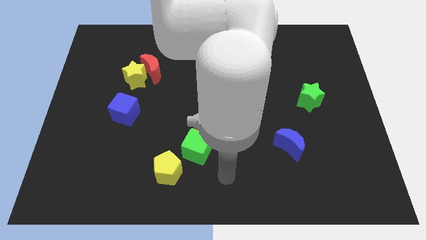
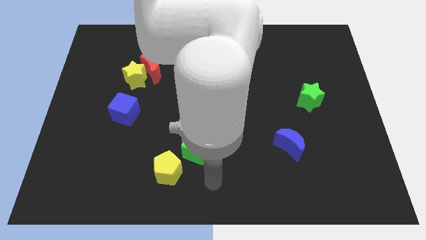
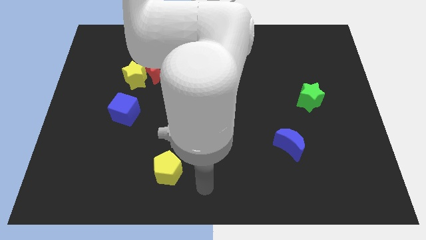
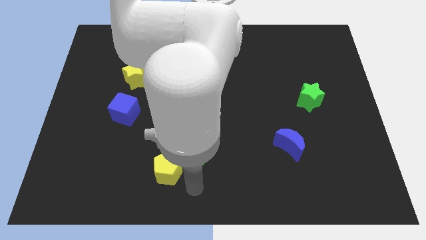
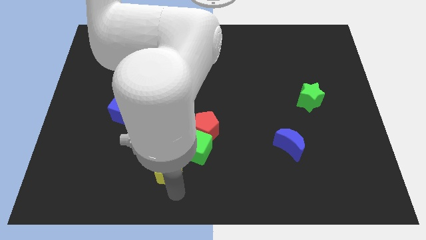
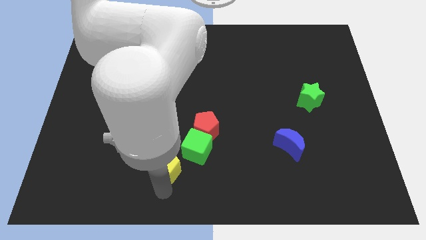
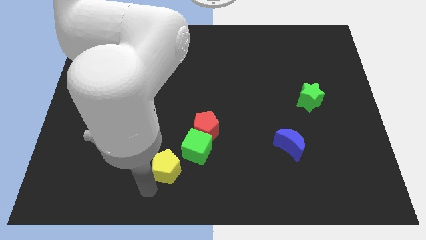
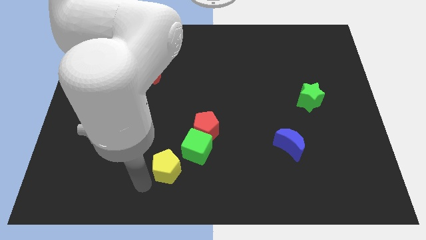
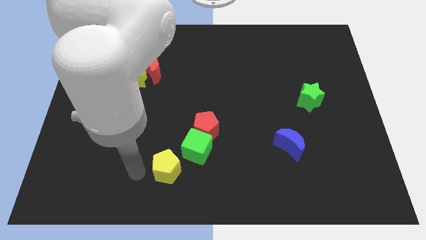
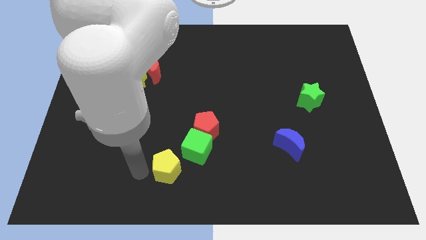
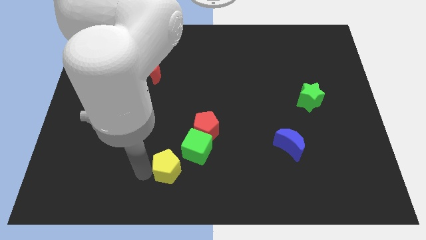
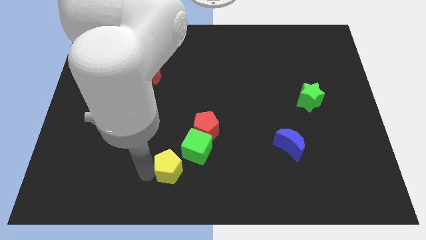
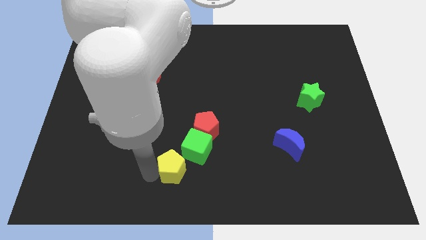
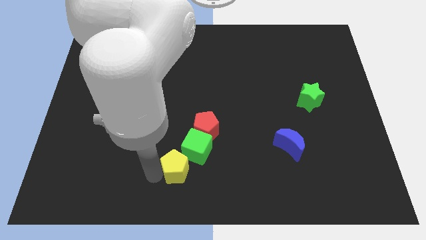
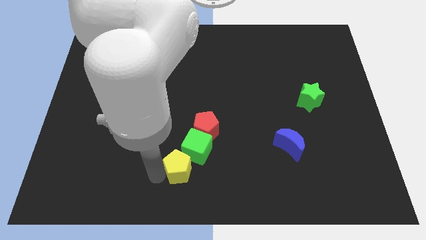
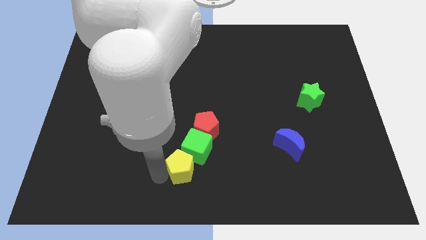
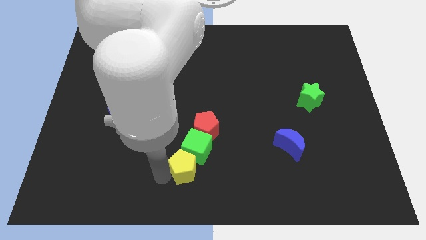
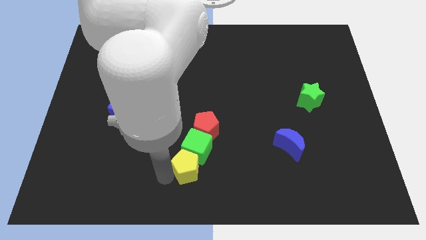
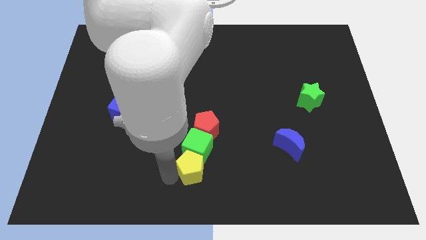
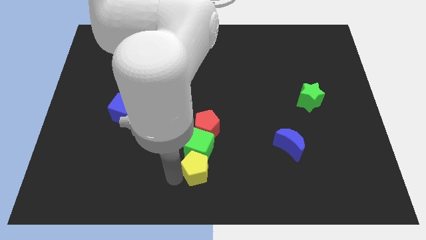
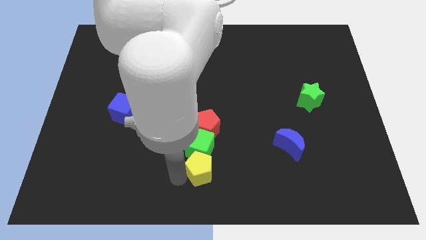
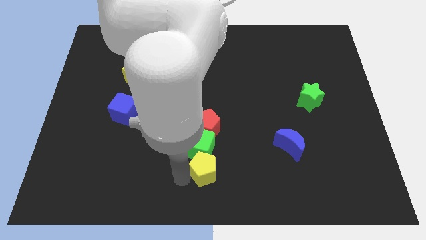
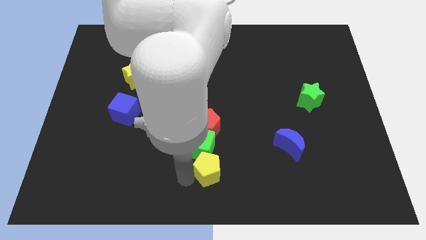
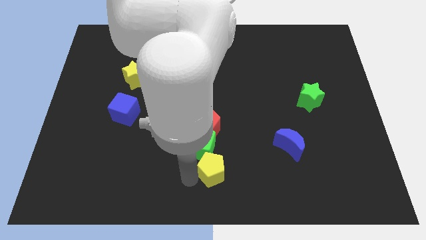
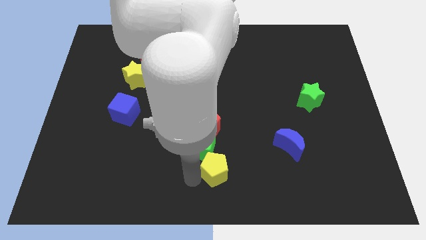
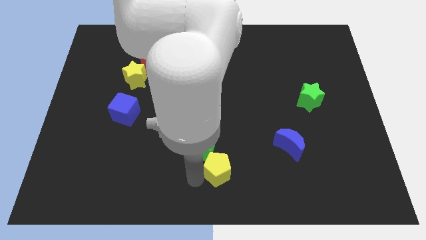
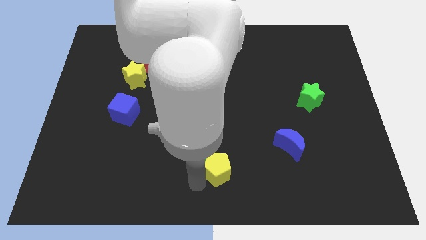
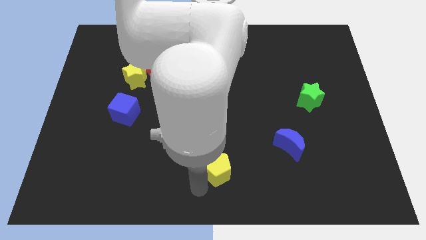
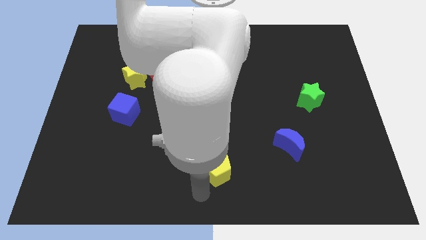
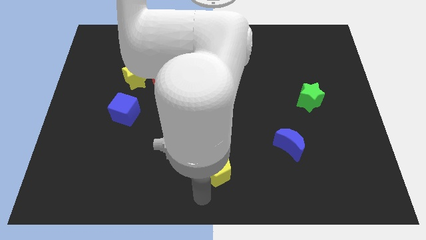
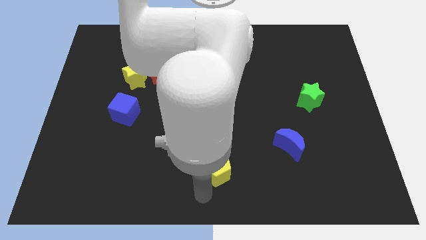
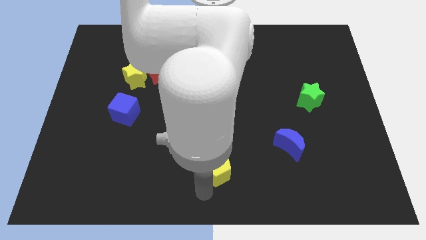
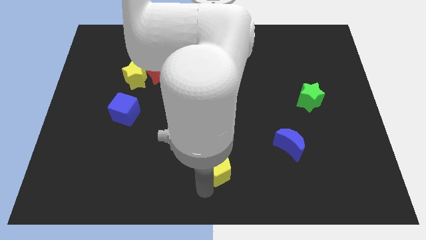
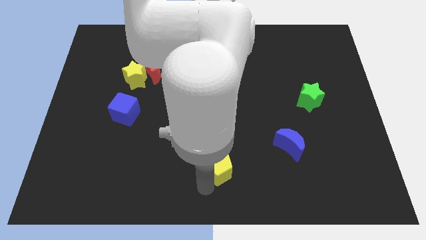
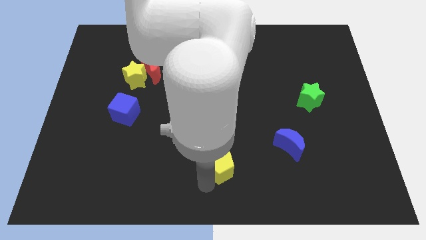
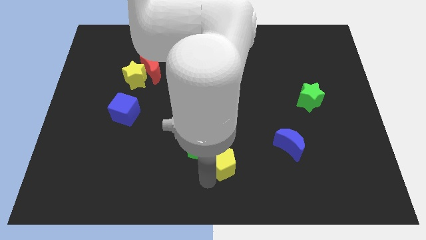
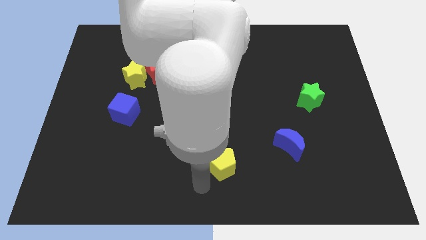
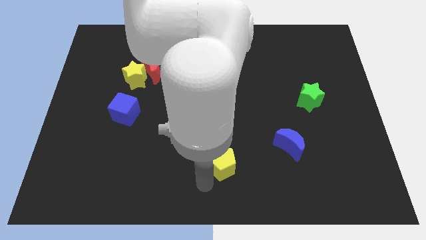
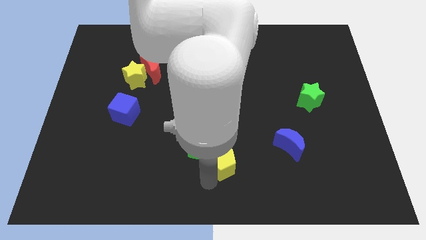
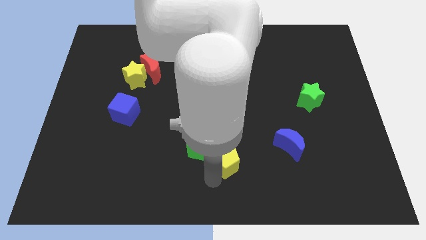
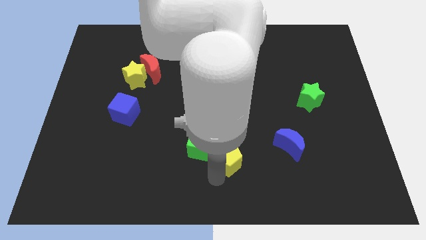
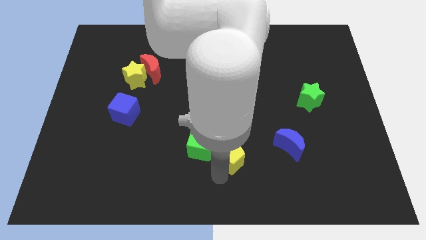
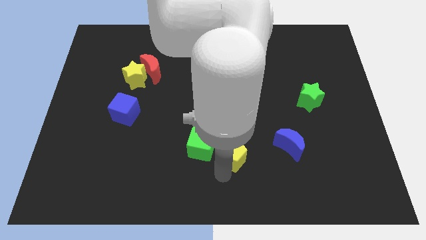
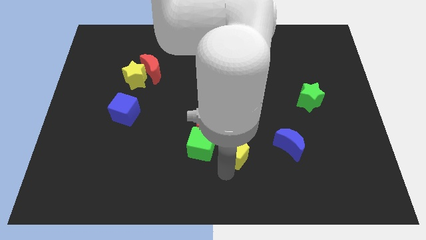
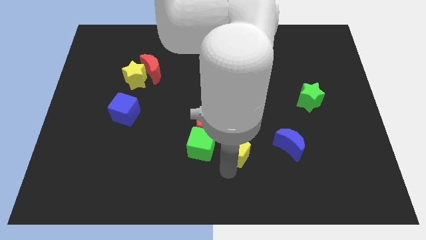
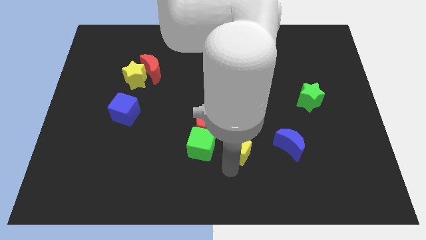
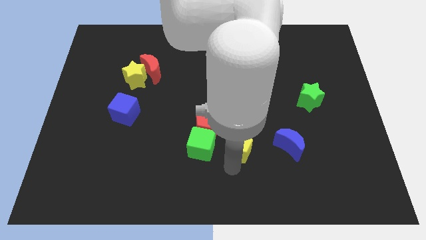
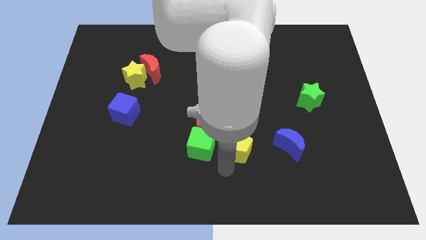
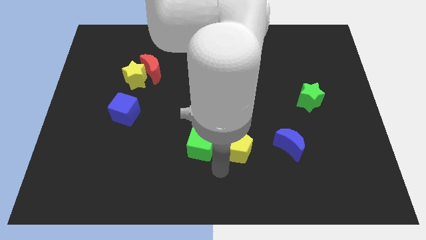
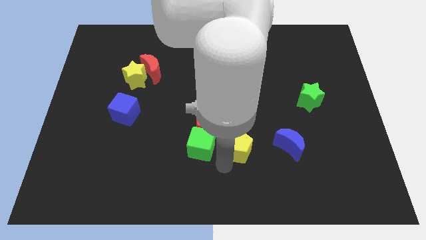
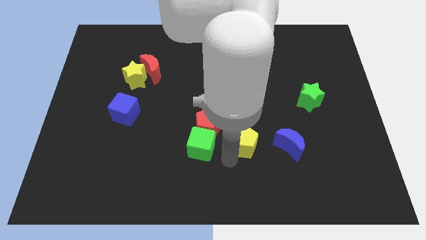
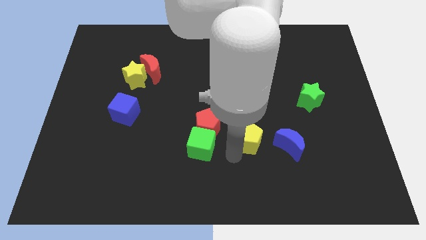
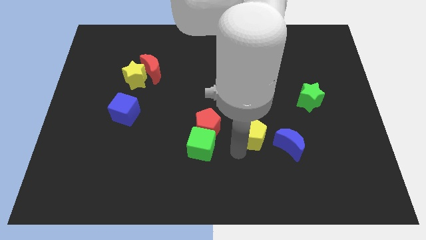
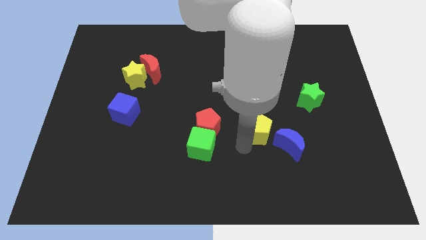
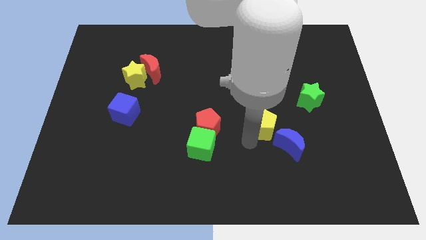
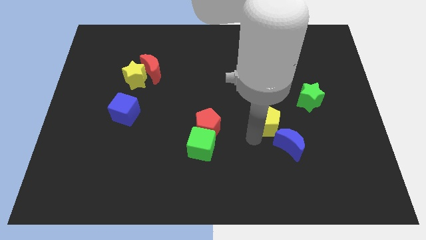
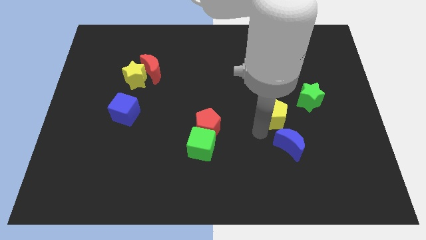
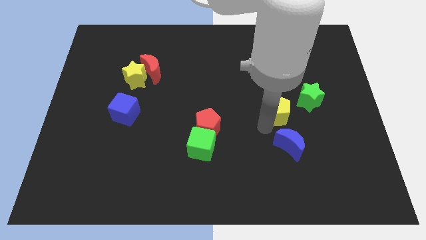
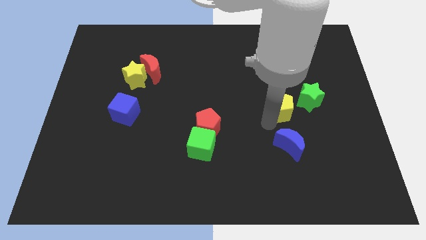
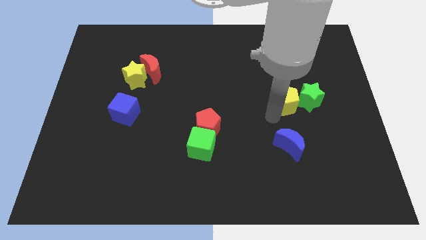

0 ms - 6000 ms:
put the yellow pentagon to the green star

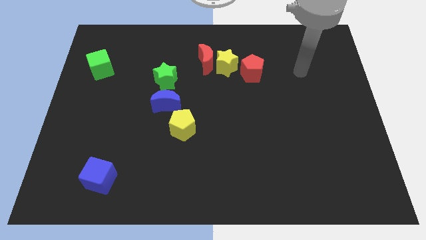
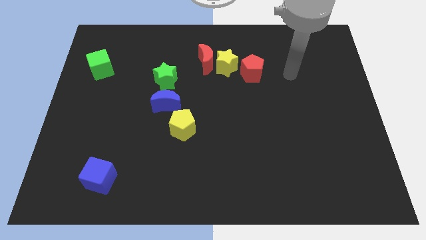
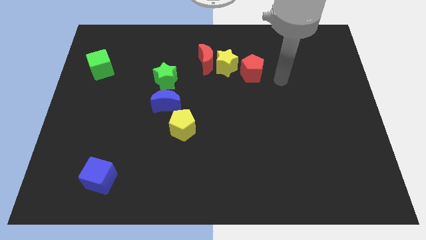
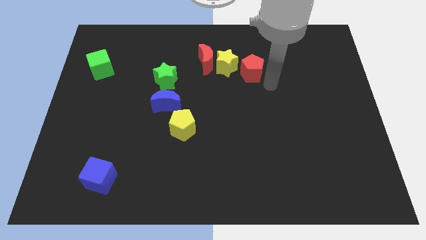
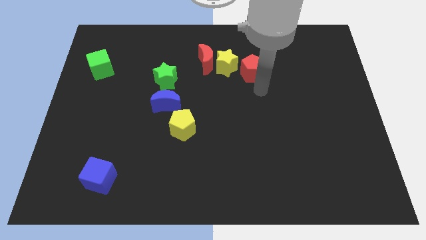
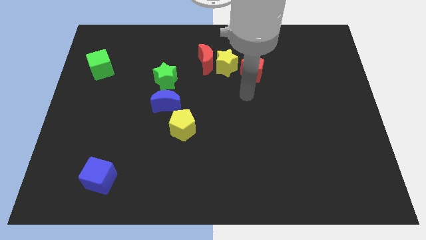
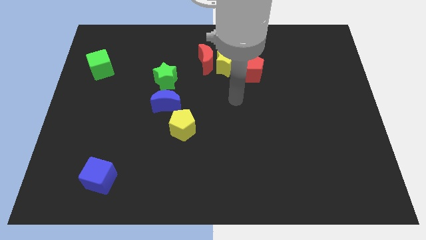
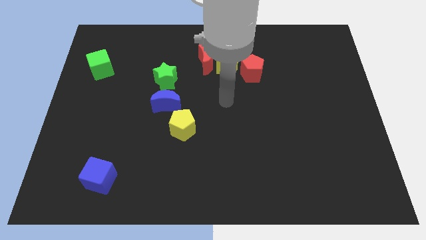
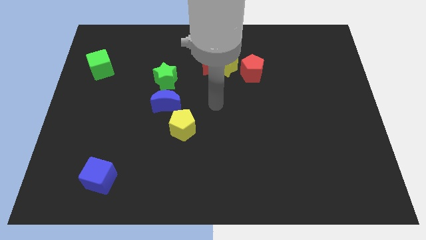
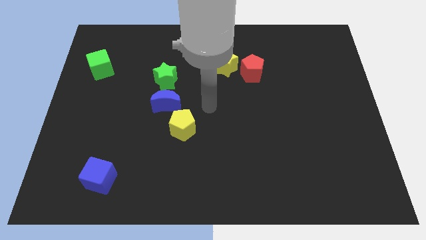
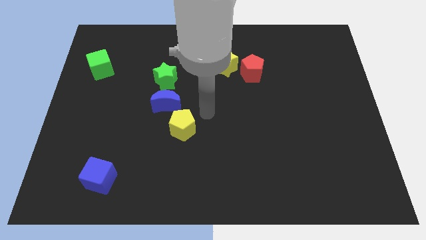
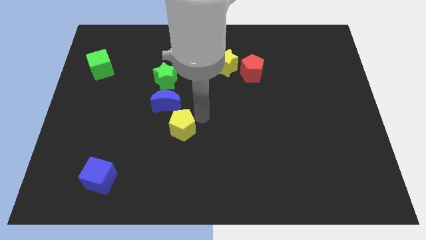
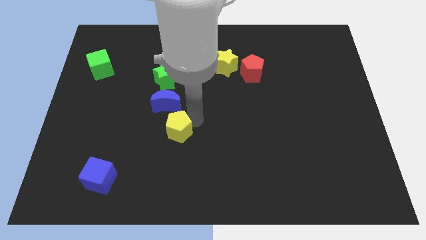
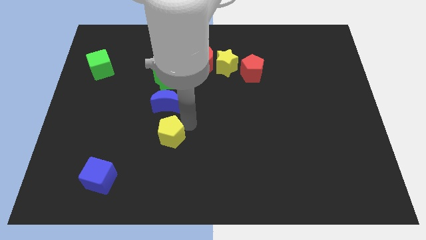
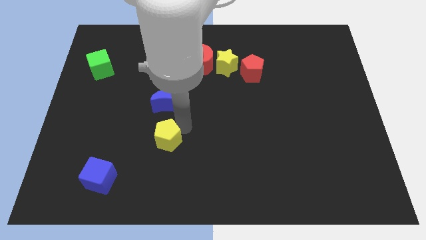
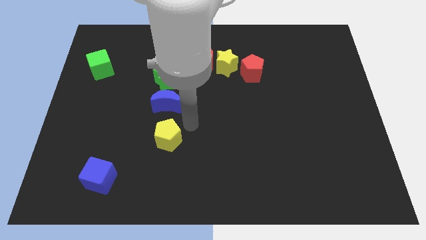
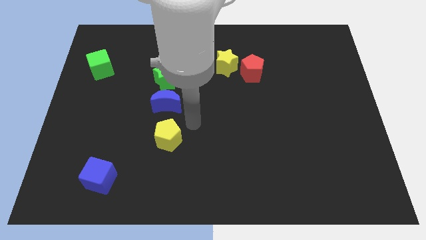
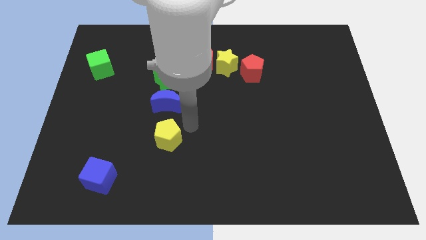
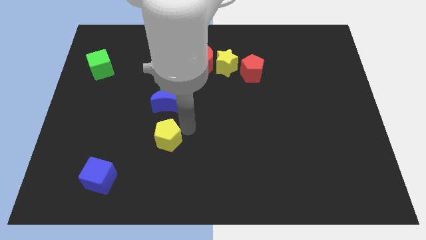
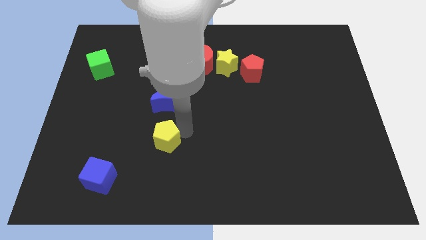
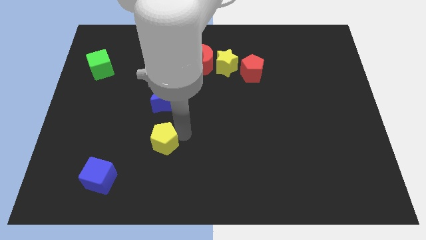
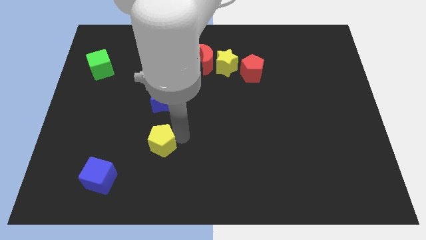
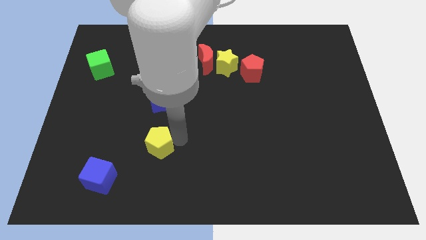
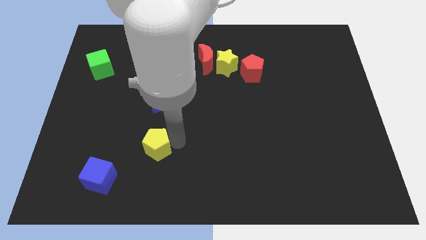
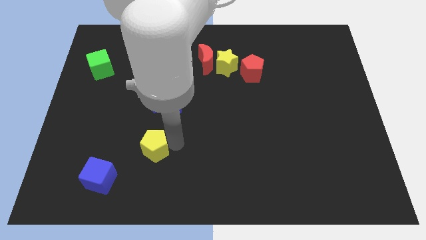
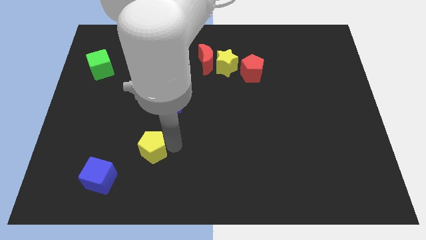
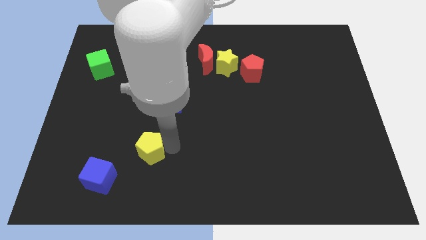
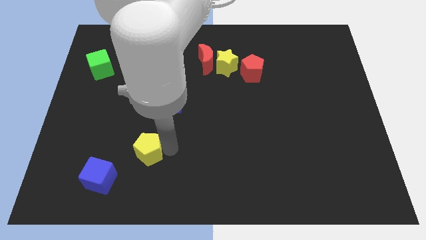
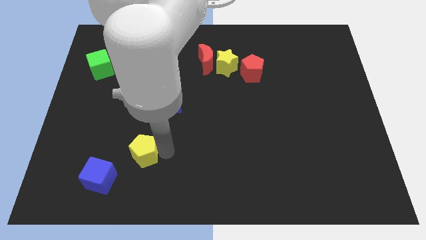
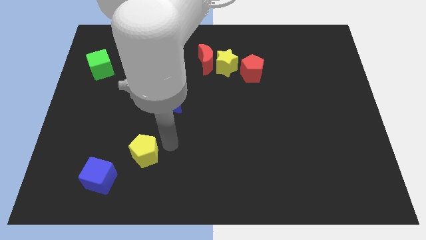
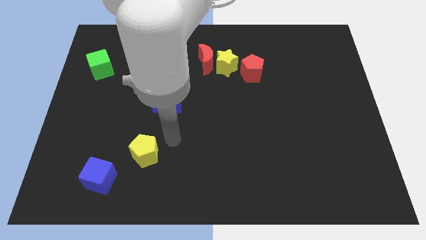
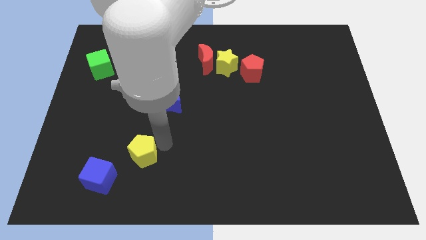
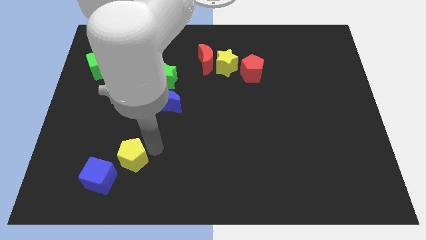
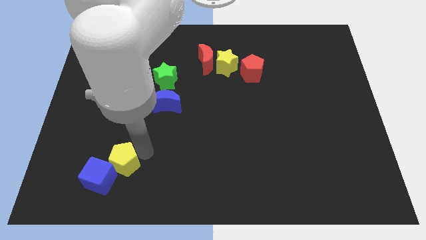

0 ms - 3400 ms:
push the yellow pentagon to the blue cube
